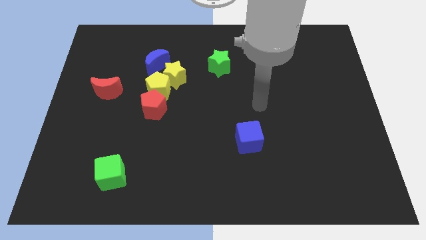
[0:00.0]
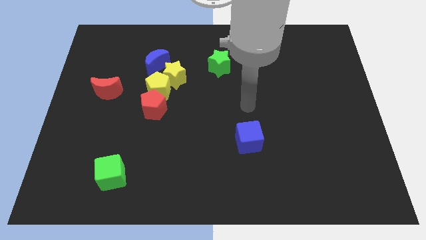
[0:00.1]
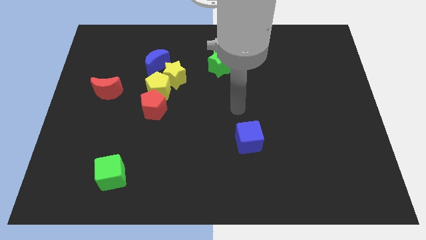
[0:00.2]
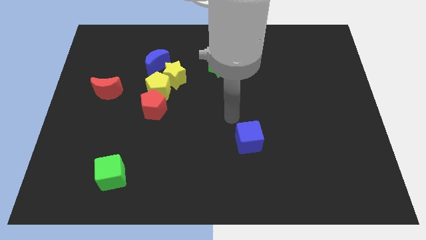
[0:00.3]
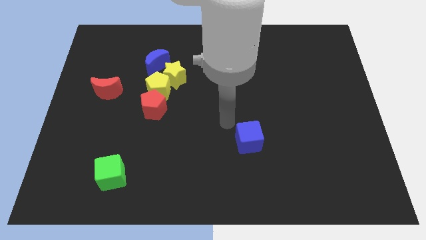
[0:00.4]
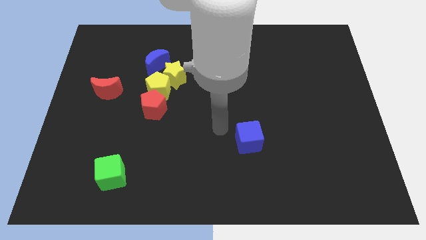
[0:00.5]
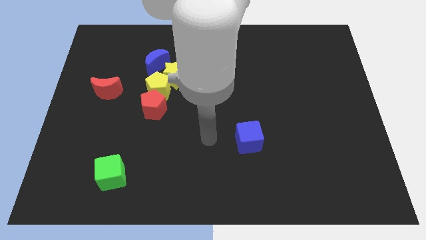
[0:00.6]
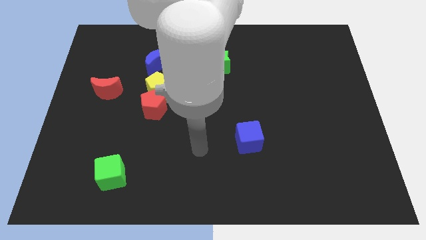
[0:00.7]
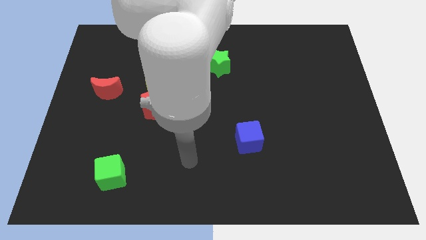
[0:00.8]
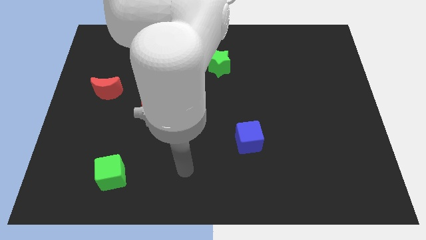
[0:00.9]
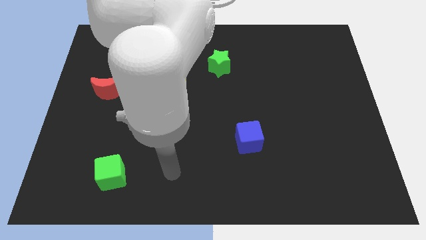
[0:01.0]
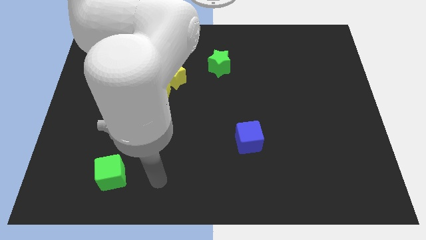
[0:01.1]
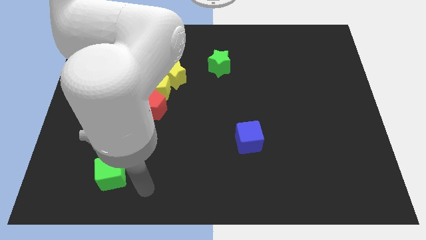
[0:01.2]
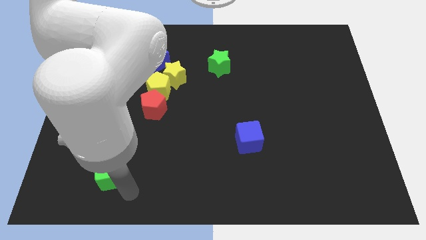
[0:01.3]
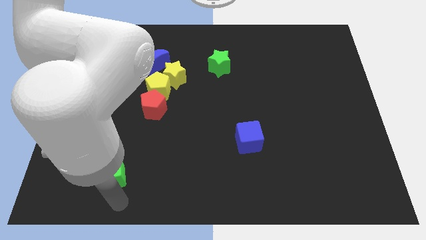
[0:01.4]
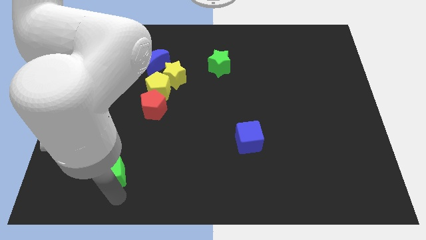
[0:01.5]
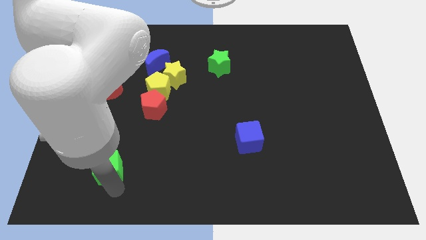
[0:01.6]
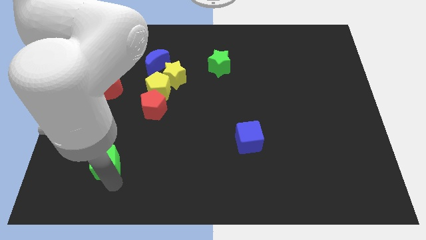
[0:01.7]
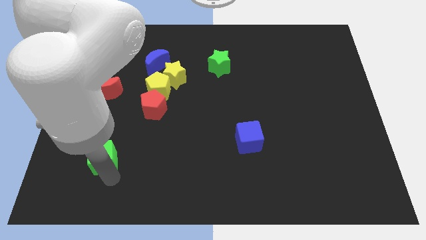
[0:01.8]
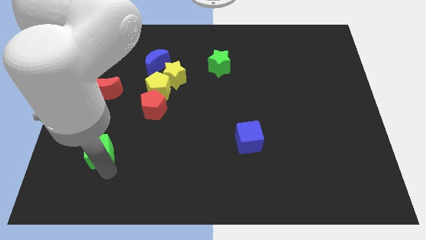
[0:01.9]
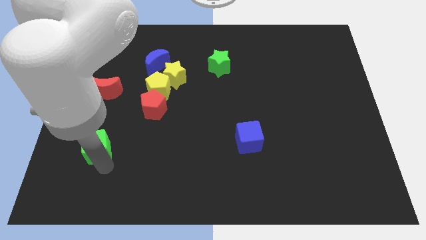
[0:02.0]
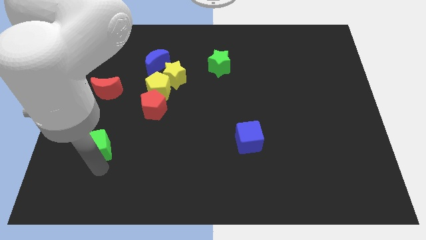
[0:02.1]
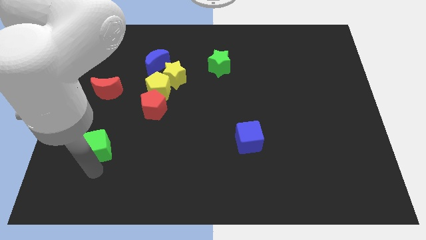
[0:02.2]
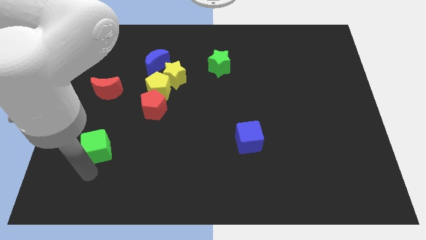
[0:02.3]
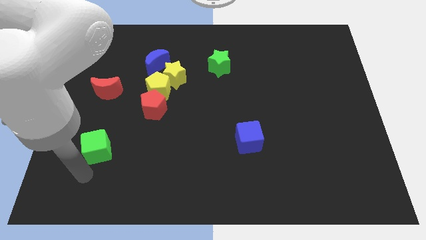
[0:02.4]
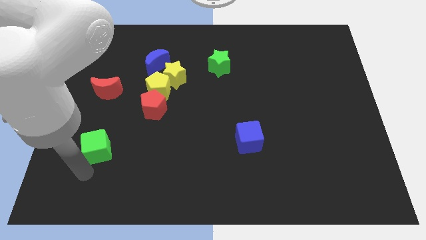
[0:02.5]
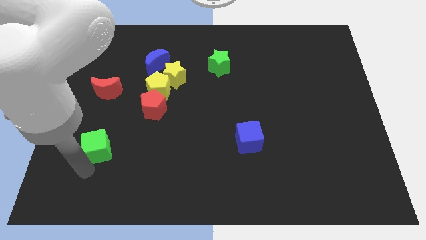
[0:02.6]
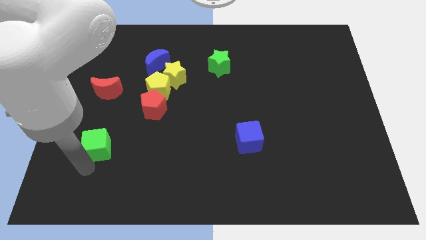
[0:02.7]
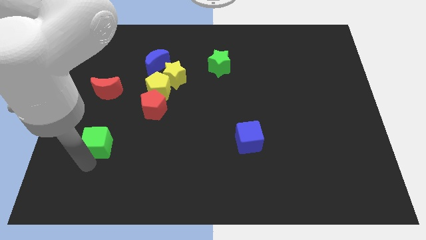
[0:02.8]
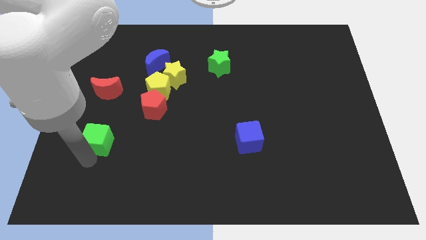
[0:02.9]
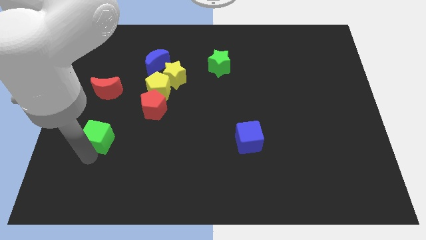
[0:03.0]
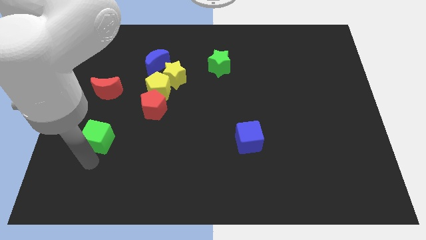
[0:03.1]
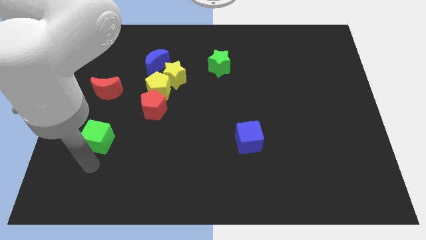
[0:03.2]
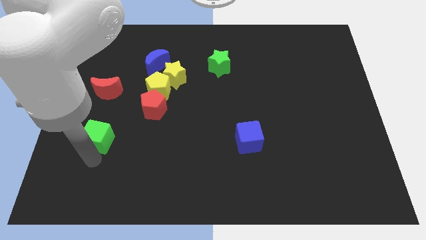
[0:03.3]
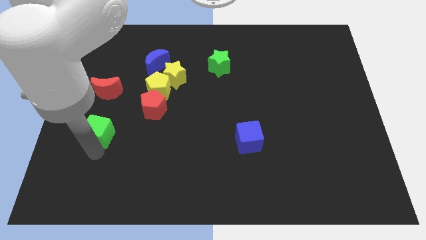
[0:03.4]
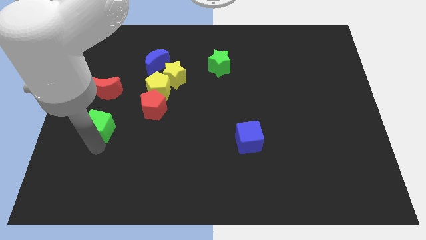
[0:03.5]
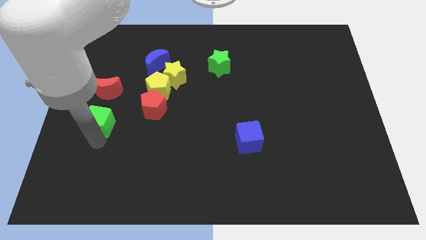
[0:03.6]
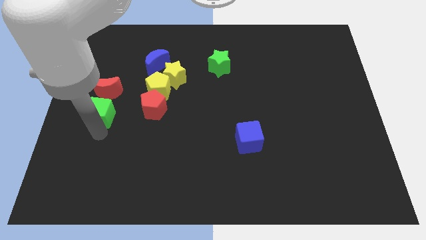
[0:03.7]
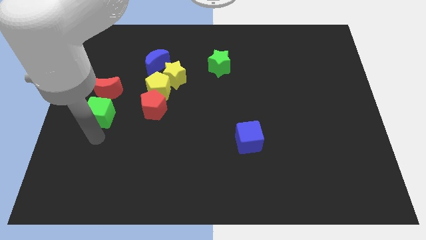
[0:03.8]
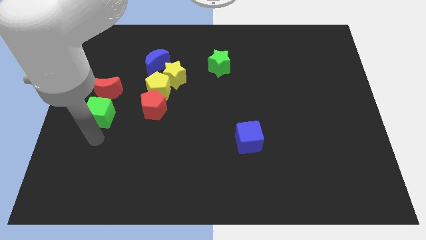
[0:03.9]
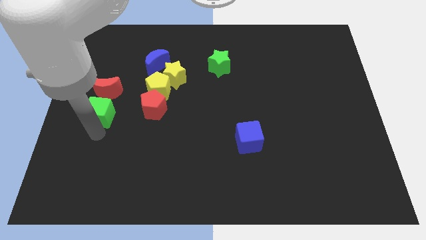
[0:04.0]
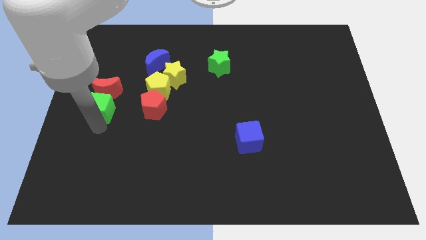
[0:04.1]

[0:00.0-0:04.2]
put the green cube towards the red moon

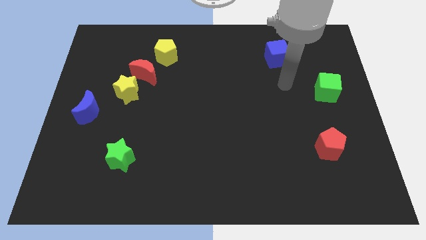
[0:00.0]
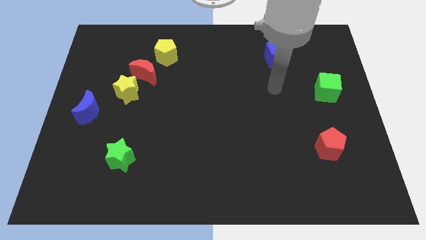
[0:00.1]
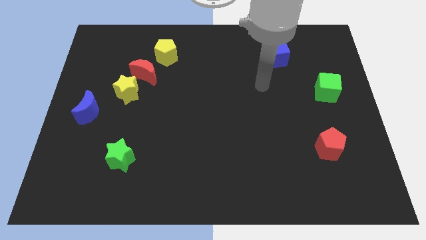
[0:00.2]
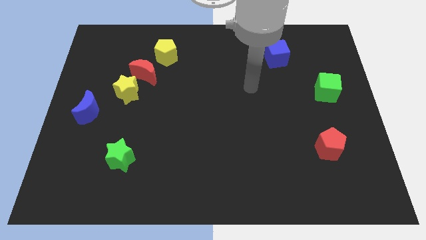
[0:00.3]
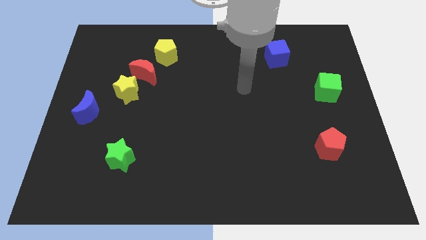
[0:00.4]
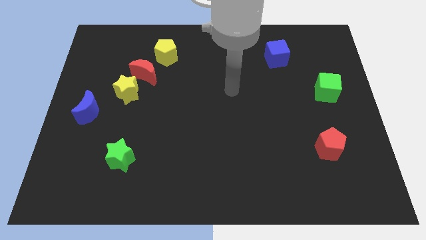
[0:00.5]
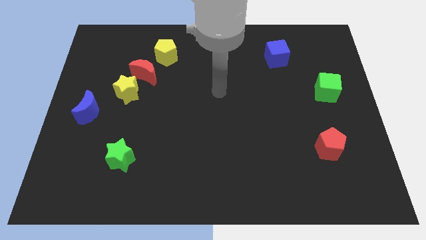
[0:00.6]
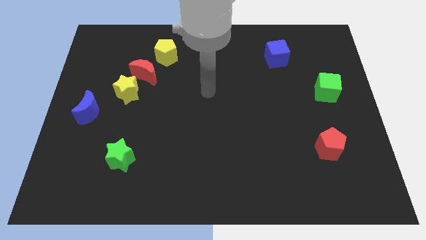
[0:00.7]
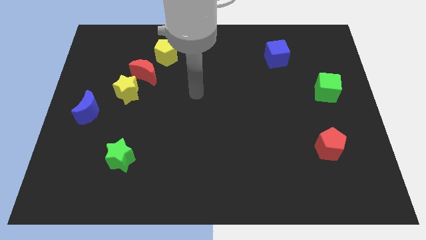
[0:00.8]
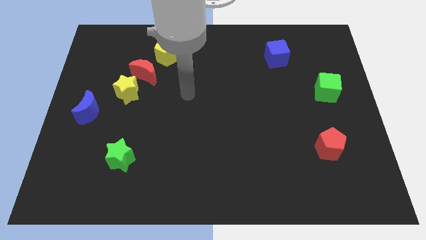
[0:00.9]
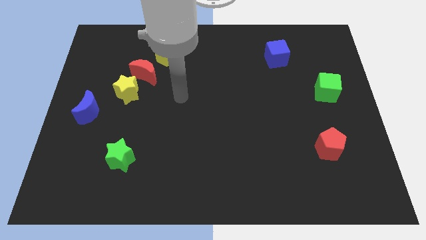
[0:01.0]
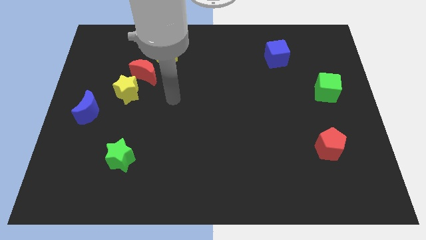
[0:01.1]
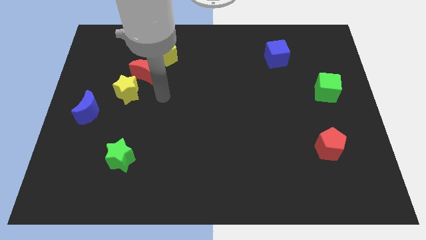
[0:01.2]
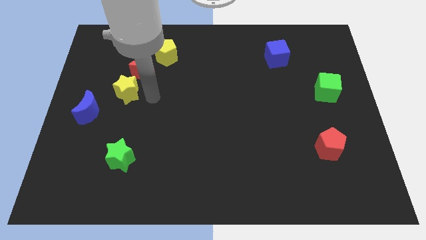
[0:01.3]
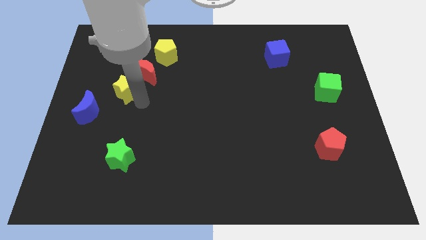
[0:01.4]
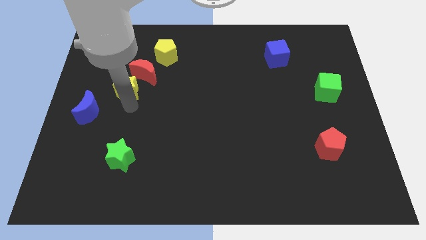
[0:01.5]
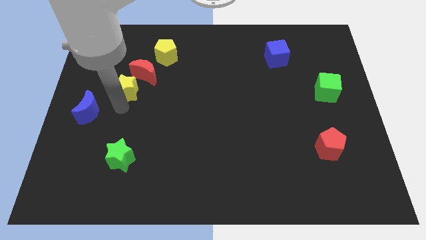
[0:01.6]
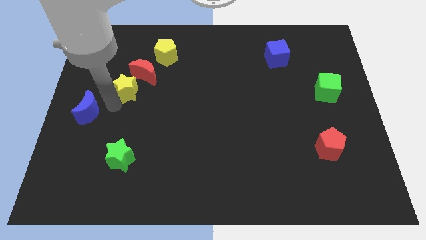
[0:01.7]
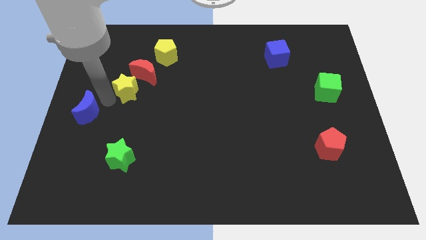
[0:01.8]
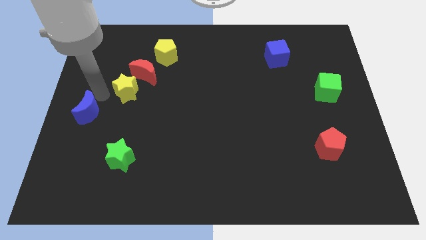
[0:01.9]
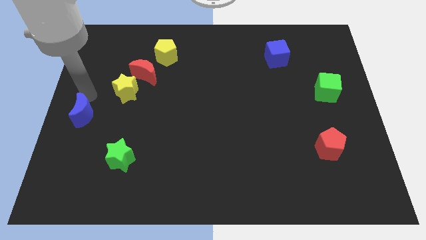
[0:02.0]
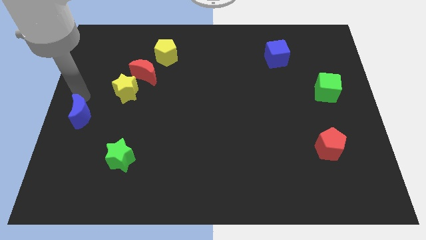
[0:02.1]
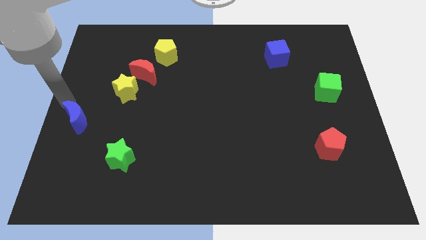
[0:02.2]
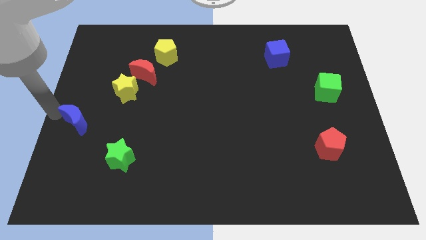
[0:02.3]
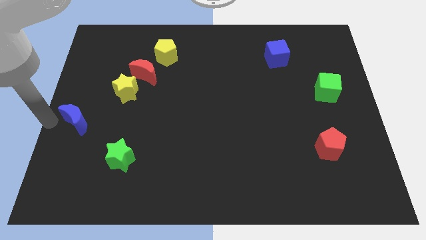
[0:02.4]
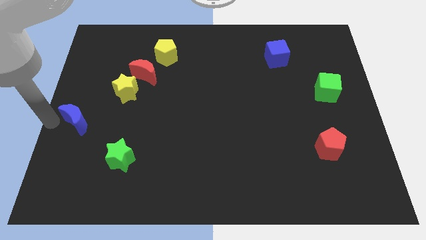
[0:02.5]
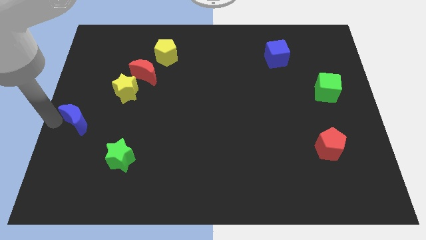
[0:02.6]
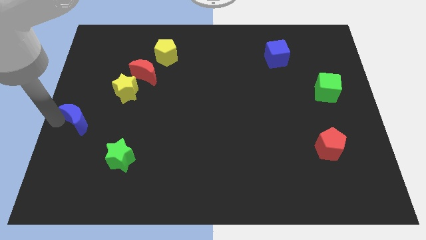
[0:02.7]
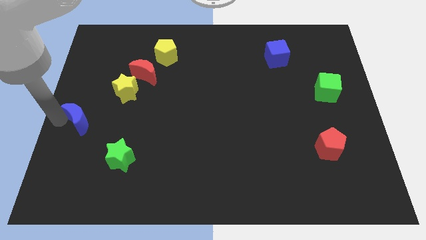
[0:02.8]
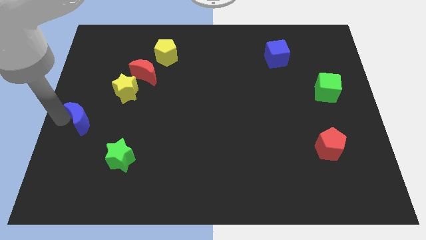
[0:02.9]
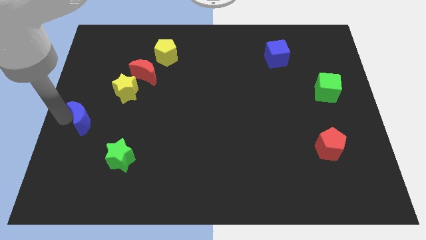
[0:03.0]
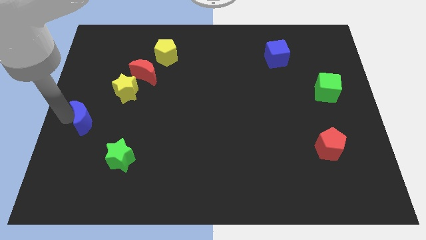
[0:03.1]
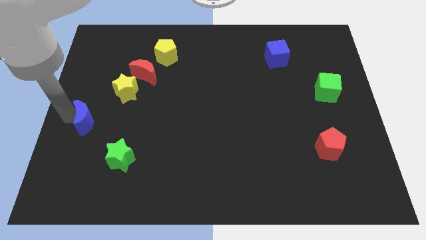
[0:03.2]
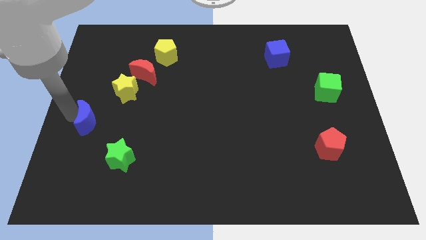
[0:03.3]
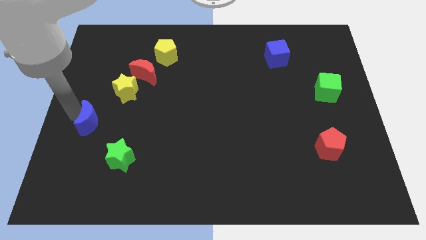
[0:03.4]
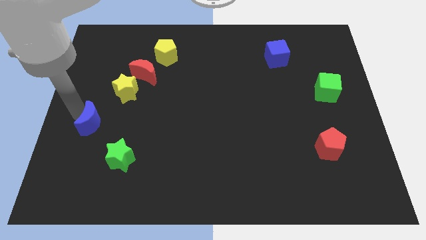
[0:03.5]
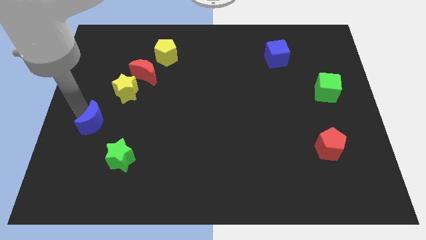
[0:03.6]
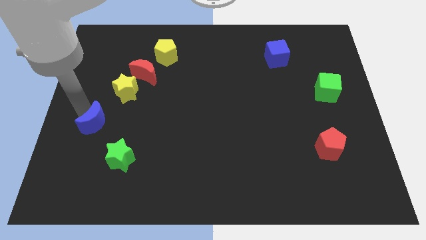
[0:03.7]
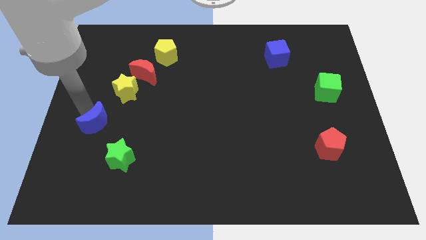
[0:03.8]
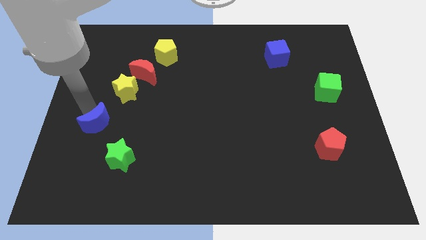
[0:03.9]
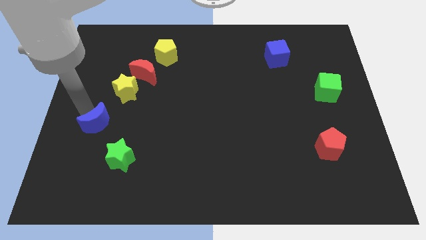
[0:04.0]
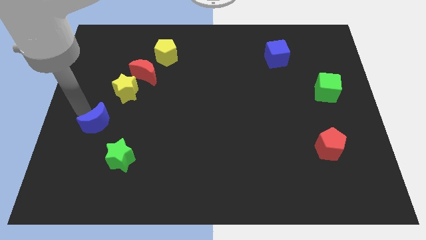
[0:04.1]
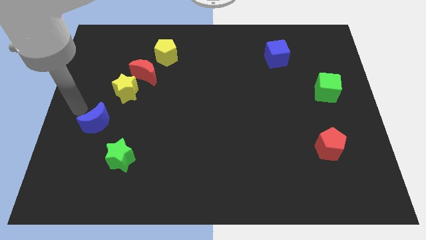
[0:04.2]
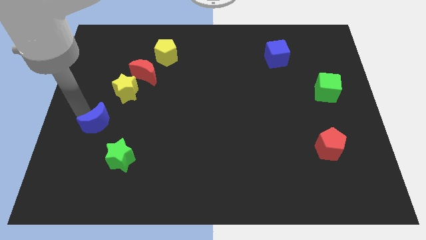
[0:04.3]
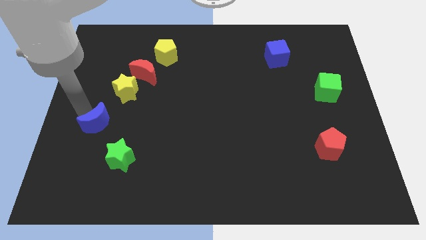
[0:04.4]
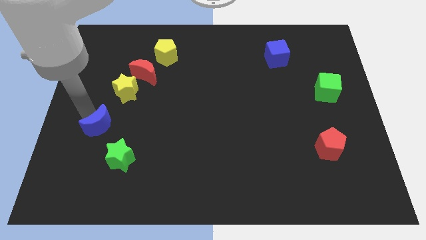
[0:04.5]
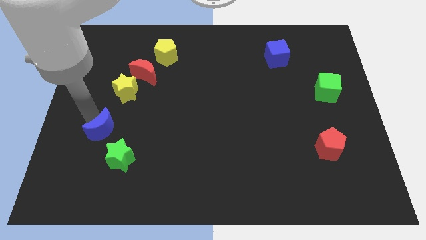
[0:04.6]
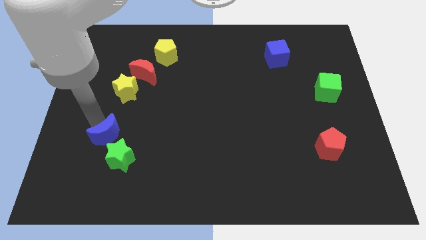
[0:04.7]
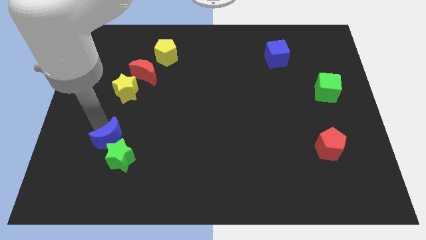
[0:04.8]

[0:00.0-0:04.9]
move the blue moon close to the green star
